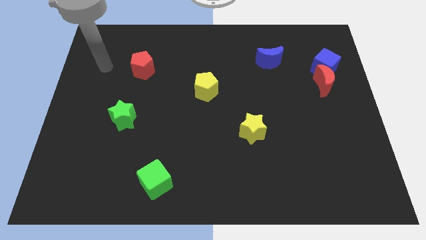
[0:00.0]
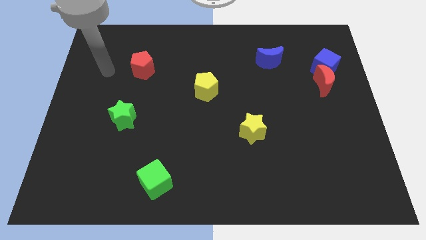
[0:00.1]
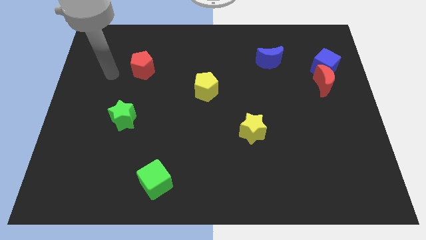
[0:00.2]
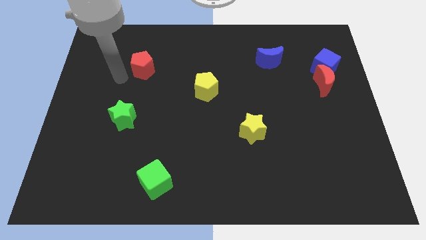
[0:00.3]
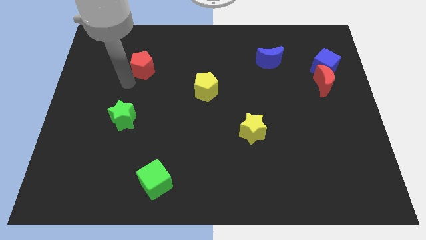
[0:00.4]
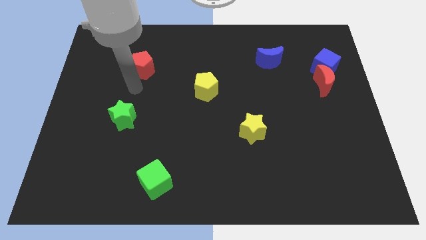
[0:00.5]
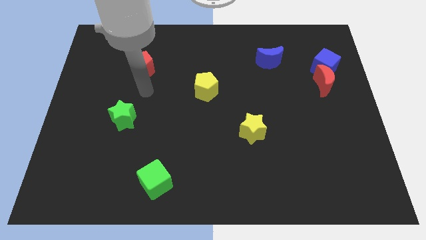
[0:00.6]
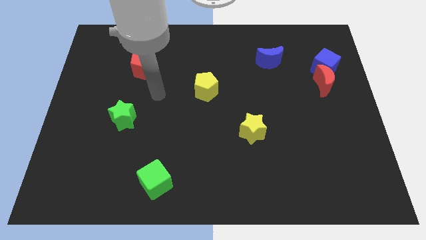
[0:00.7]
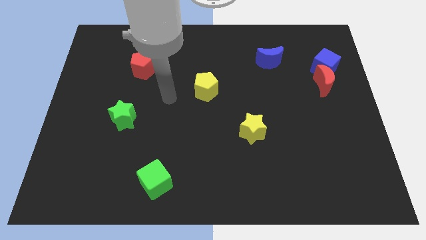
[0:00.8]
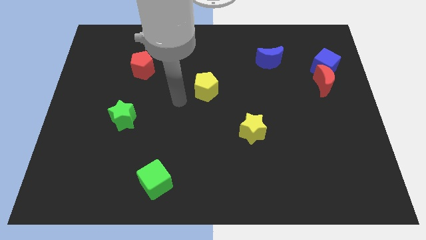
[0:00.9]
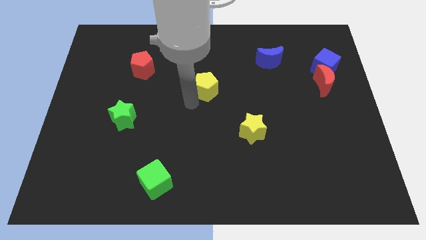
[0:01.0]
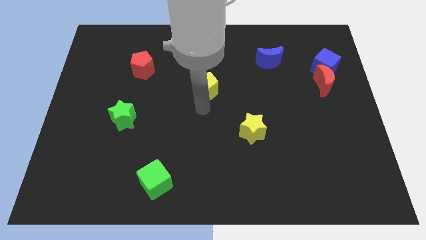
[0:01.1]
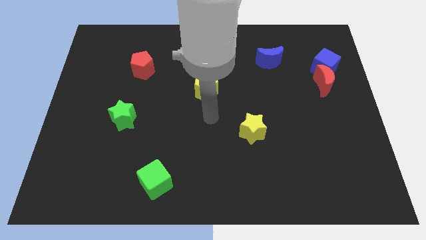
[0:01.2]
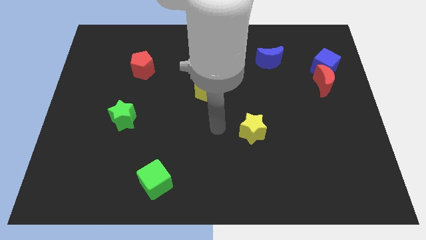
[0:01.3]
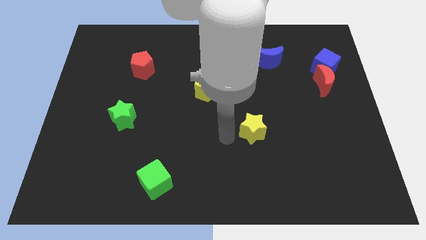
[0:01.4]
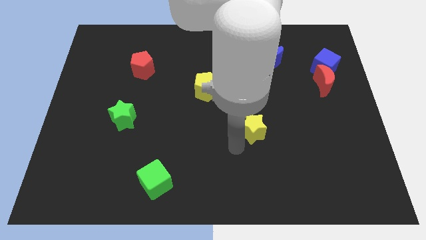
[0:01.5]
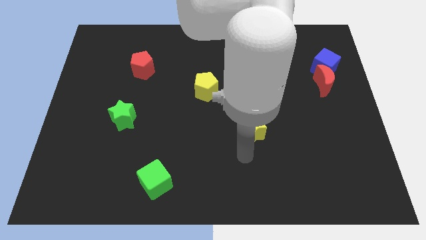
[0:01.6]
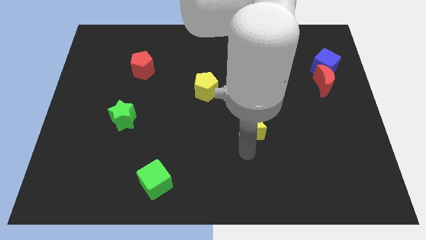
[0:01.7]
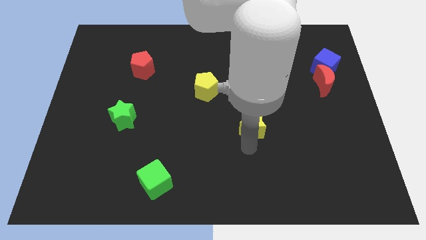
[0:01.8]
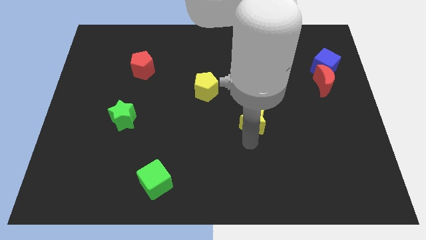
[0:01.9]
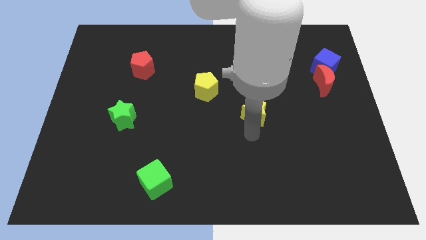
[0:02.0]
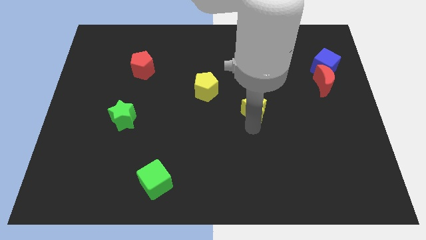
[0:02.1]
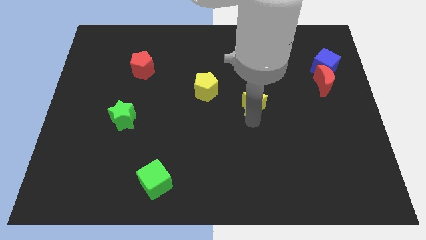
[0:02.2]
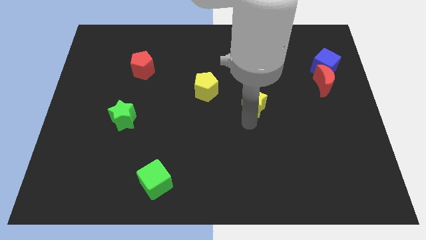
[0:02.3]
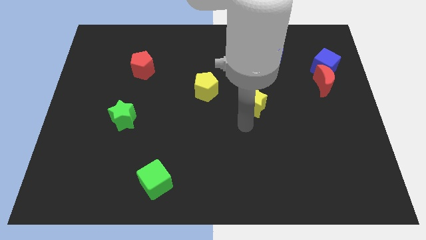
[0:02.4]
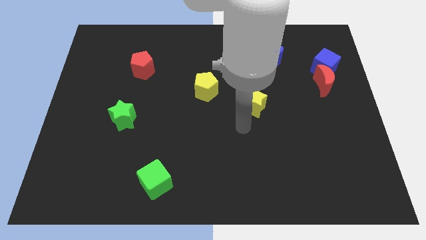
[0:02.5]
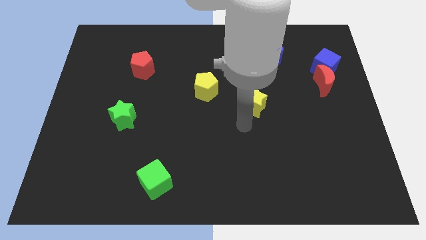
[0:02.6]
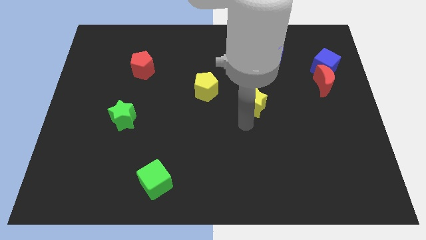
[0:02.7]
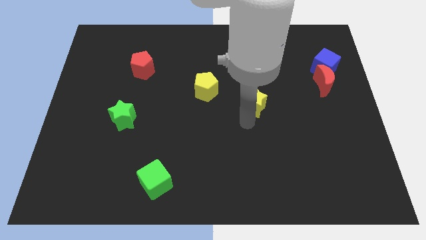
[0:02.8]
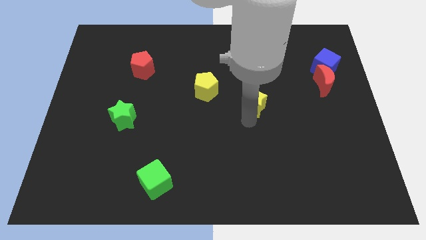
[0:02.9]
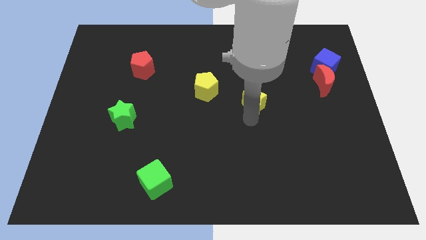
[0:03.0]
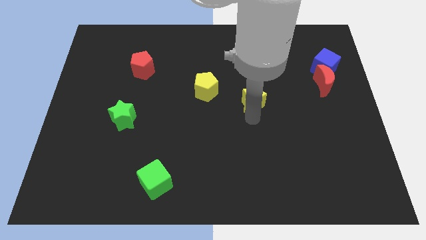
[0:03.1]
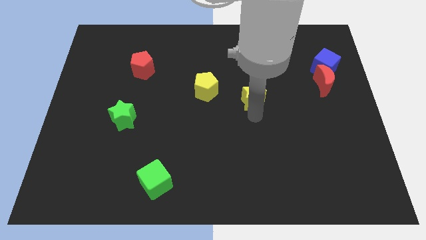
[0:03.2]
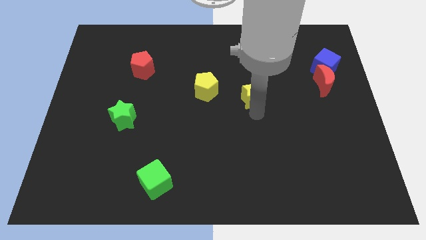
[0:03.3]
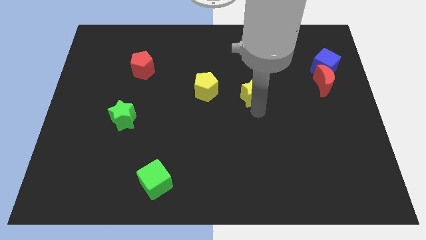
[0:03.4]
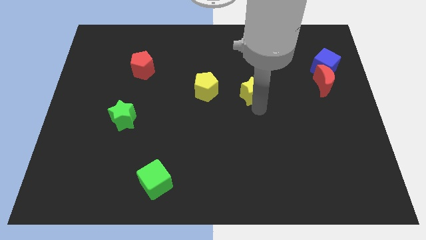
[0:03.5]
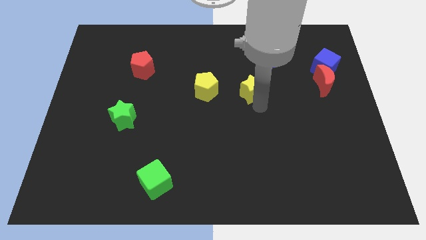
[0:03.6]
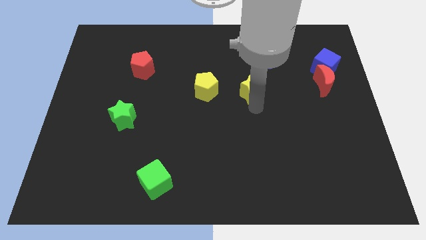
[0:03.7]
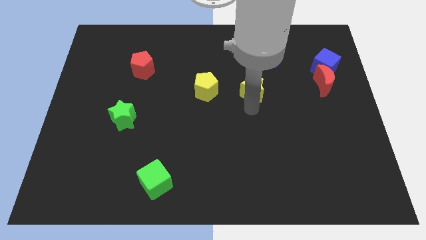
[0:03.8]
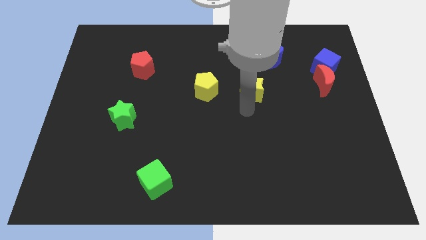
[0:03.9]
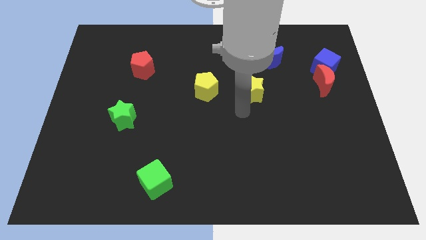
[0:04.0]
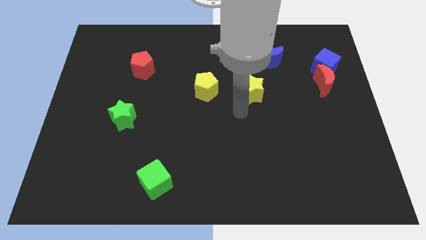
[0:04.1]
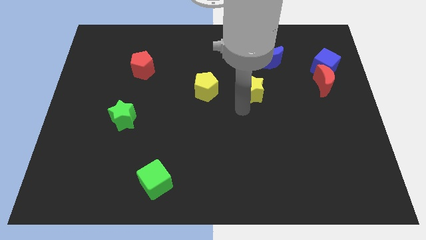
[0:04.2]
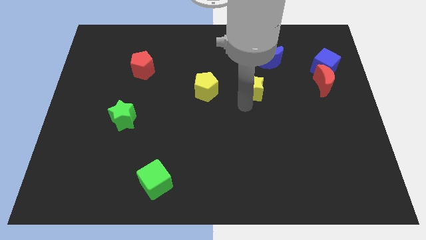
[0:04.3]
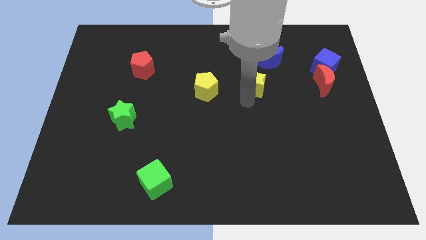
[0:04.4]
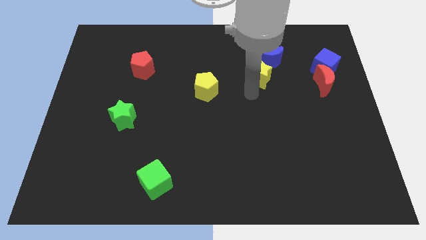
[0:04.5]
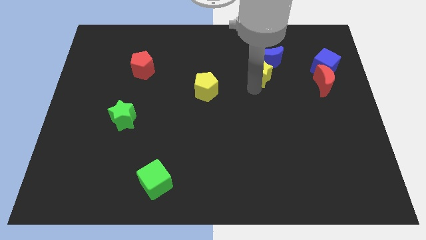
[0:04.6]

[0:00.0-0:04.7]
slide the yellow star towards the blue moon

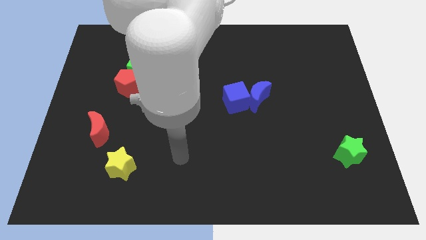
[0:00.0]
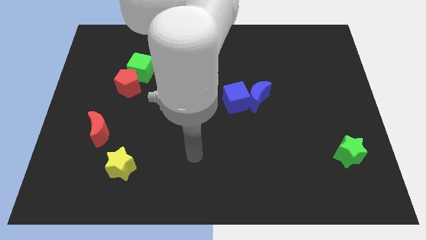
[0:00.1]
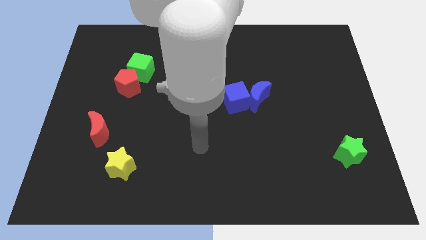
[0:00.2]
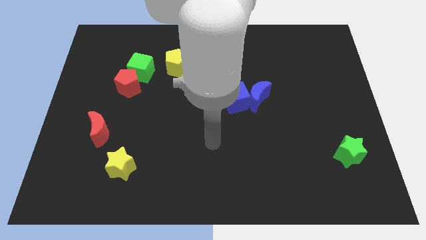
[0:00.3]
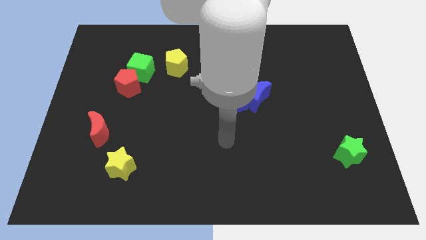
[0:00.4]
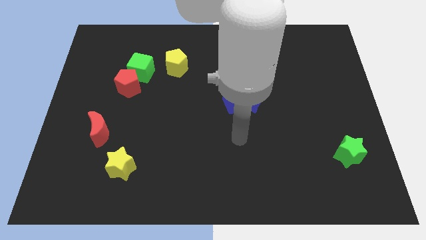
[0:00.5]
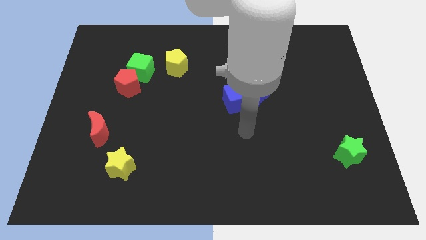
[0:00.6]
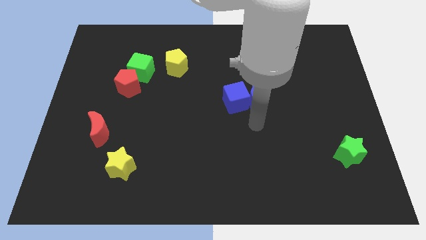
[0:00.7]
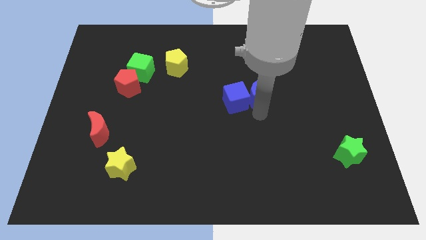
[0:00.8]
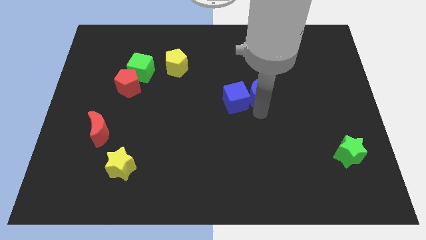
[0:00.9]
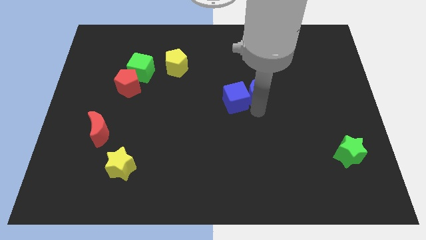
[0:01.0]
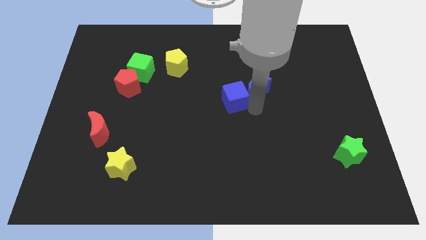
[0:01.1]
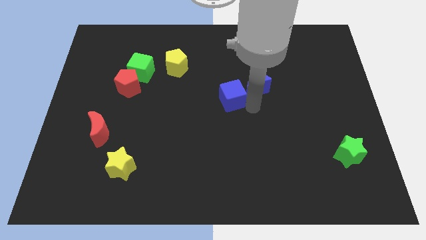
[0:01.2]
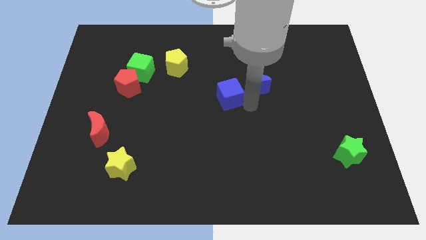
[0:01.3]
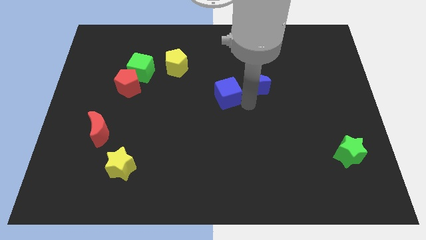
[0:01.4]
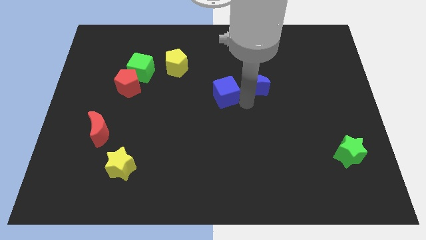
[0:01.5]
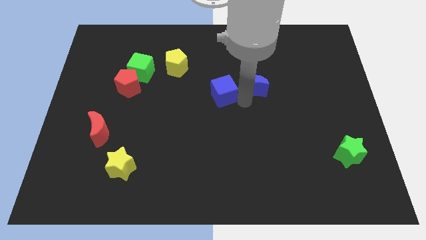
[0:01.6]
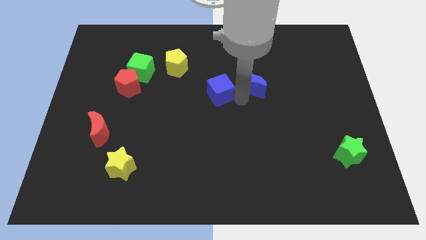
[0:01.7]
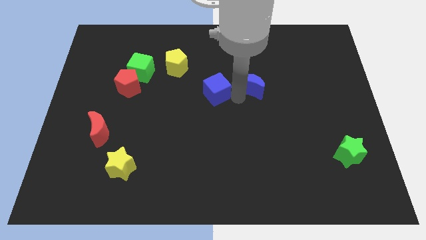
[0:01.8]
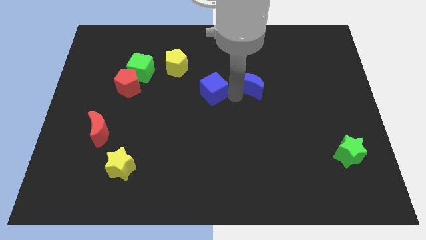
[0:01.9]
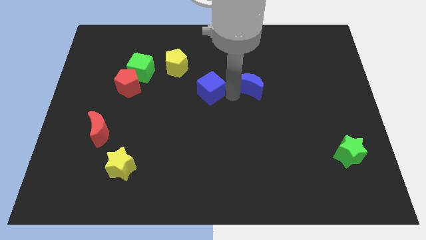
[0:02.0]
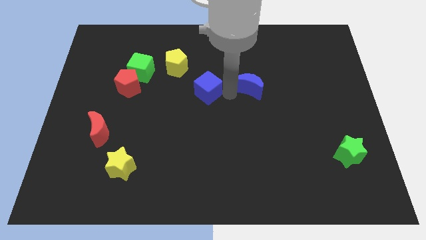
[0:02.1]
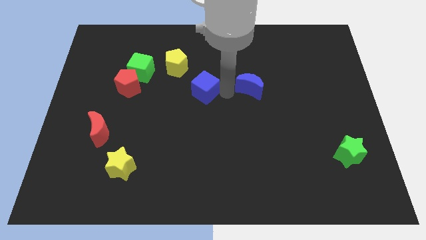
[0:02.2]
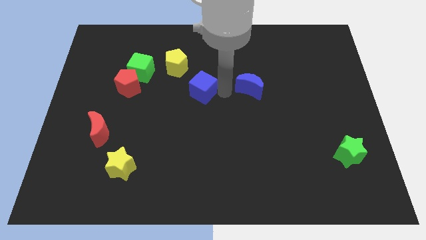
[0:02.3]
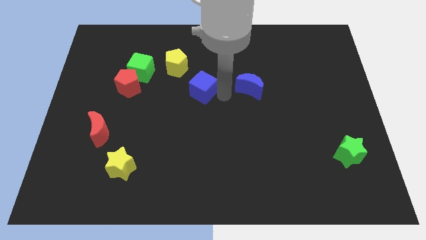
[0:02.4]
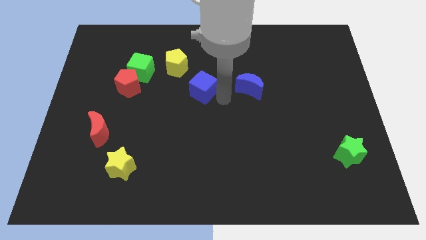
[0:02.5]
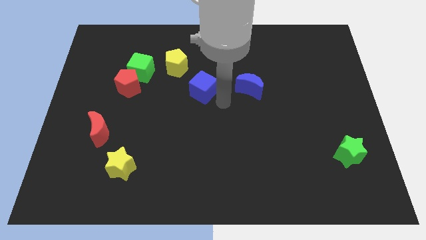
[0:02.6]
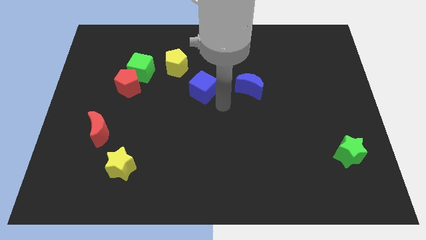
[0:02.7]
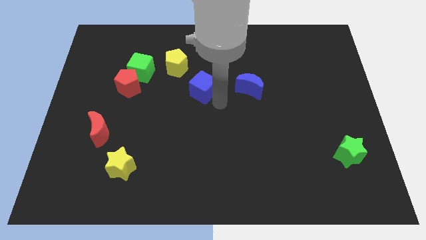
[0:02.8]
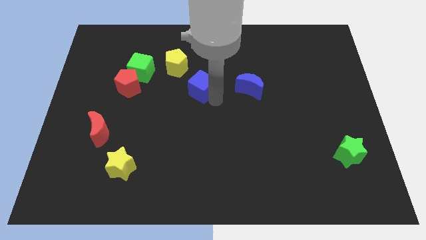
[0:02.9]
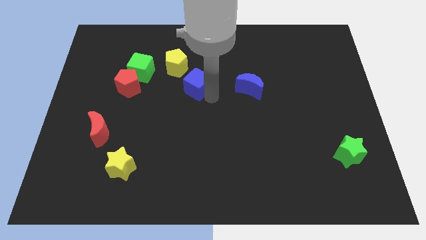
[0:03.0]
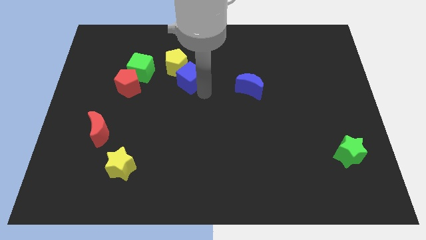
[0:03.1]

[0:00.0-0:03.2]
slide the blue cube towards the yellow pentagon
